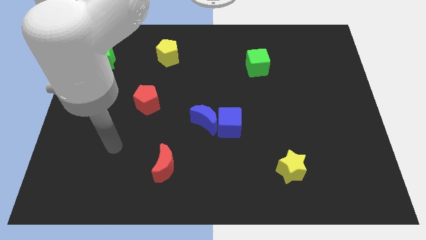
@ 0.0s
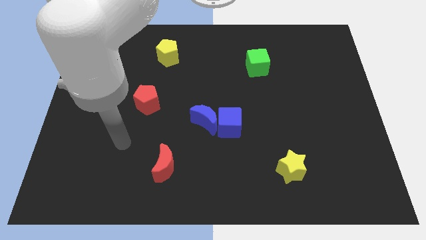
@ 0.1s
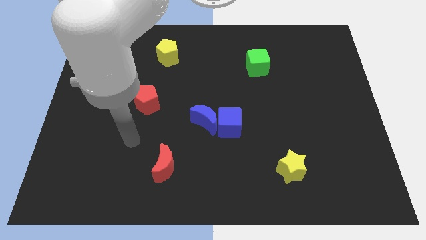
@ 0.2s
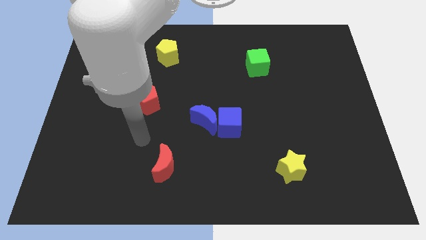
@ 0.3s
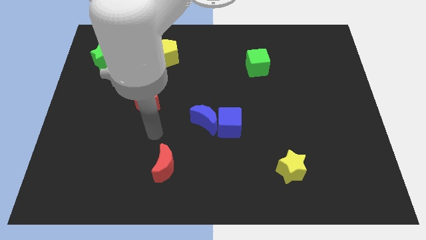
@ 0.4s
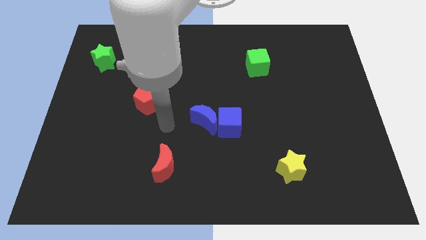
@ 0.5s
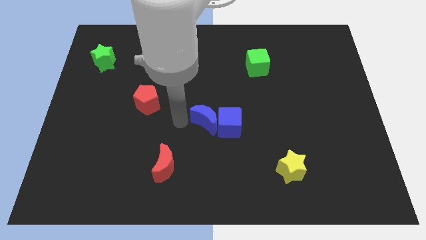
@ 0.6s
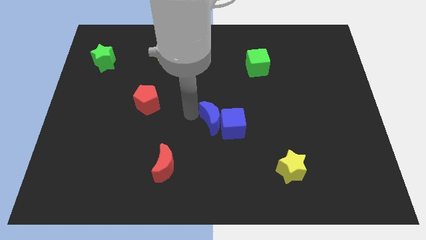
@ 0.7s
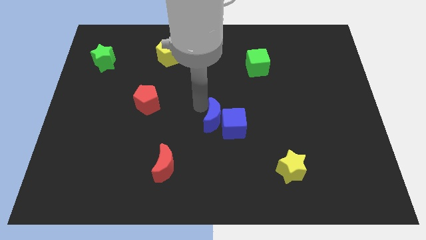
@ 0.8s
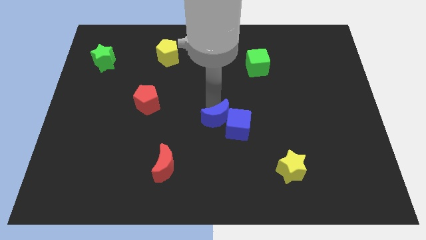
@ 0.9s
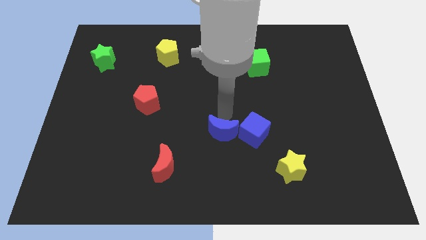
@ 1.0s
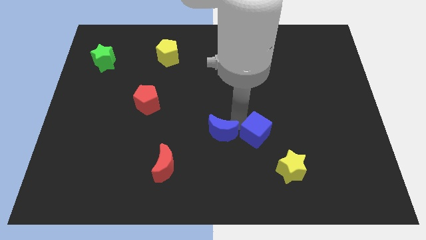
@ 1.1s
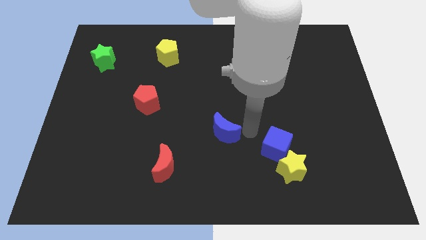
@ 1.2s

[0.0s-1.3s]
move the blue moon away from the blue cube

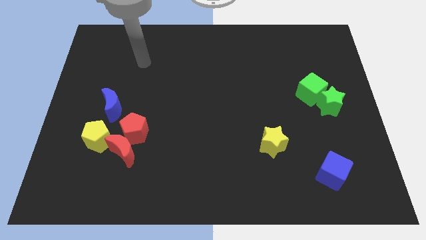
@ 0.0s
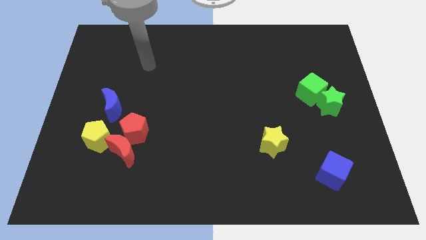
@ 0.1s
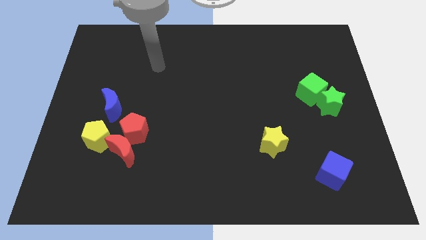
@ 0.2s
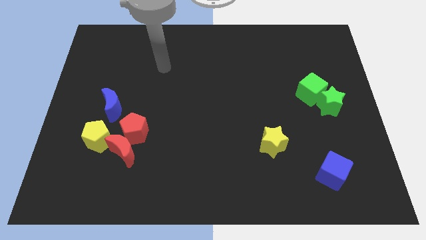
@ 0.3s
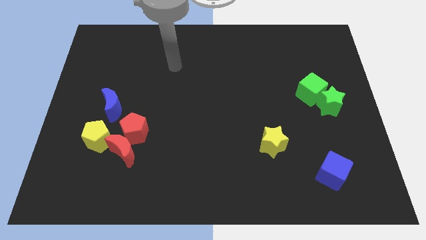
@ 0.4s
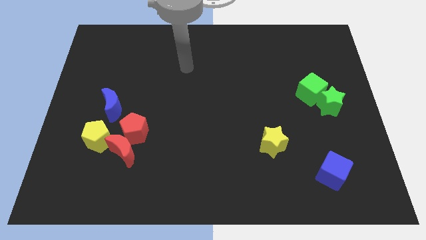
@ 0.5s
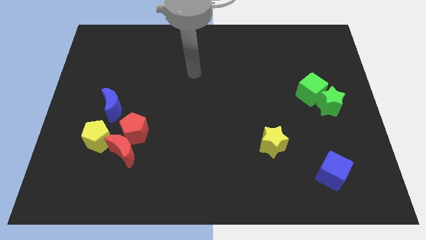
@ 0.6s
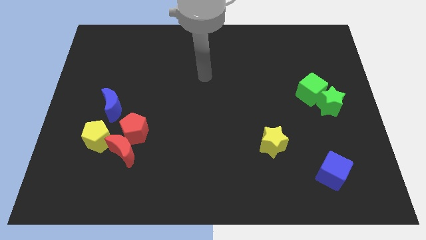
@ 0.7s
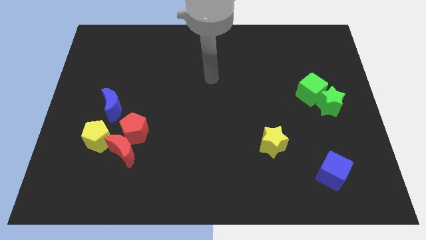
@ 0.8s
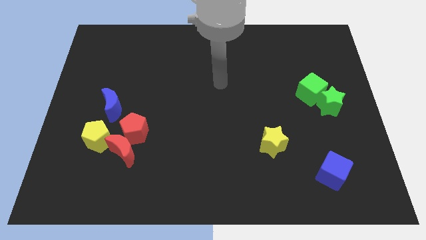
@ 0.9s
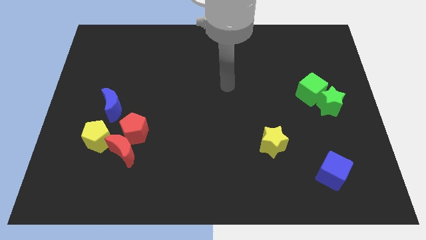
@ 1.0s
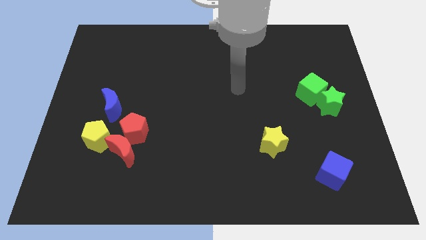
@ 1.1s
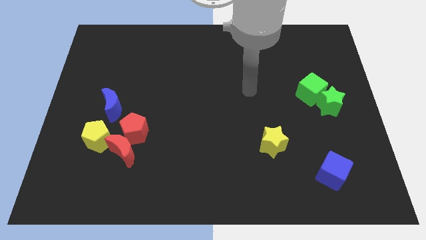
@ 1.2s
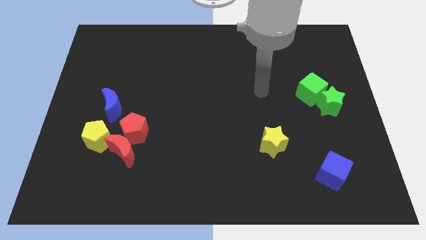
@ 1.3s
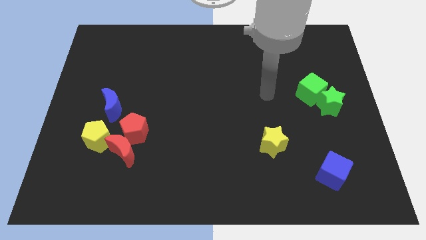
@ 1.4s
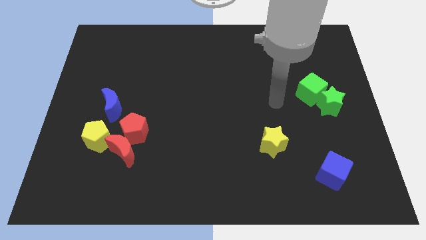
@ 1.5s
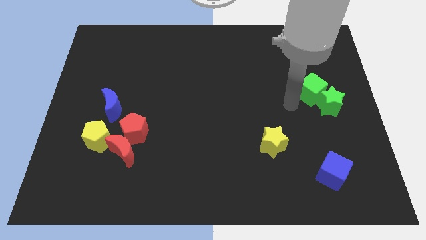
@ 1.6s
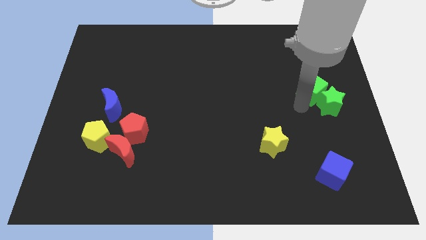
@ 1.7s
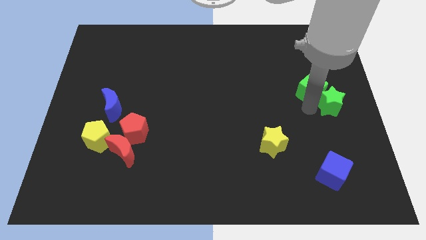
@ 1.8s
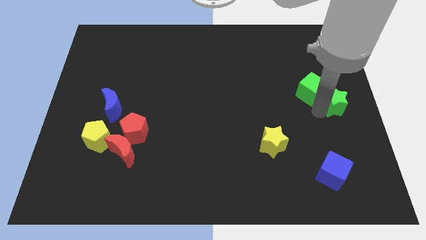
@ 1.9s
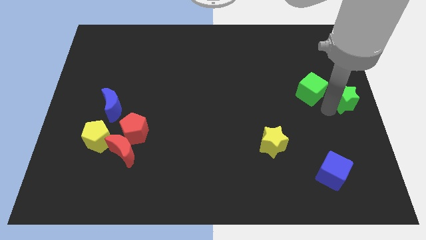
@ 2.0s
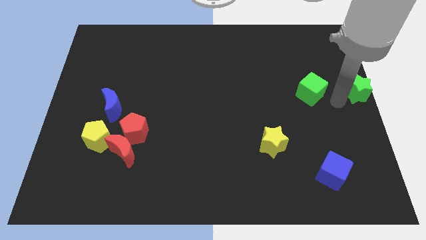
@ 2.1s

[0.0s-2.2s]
pull the green cube apart from the green star

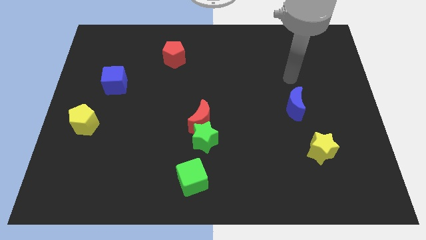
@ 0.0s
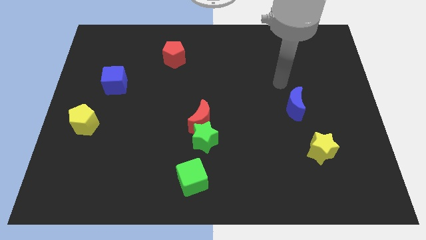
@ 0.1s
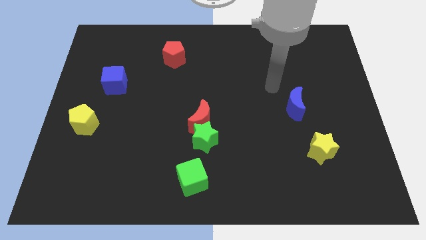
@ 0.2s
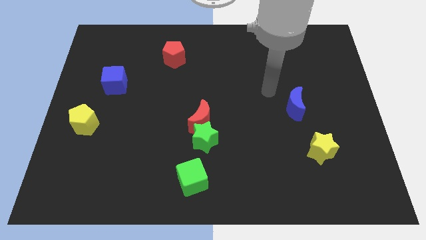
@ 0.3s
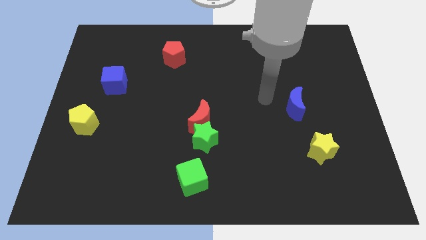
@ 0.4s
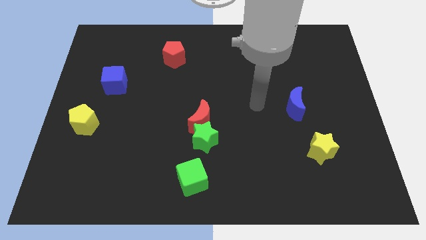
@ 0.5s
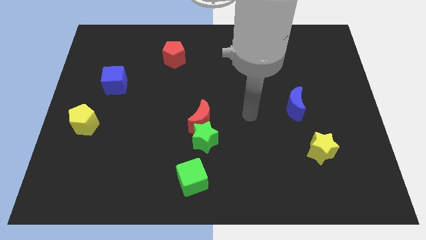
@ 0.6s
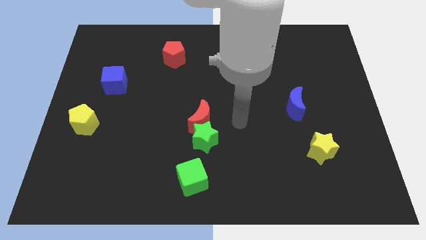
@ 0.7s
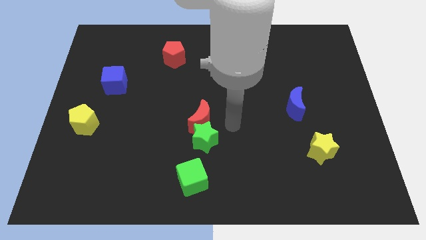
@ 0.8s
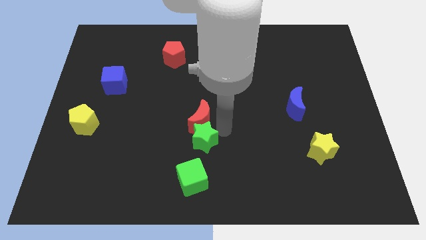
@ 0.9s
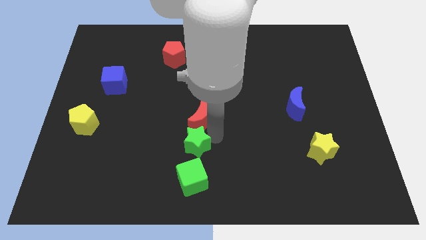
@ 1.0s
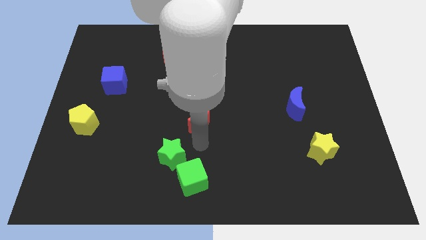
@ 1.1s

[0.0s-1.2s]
separate the red moon from the green star

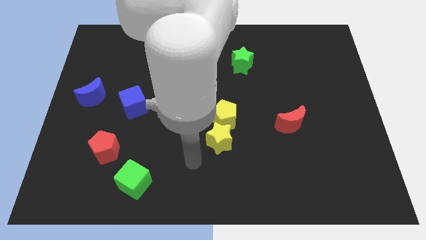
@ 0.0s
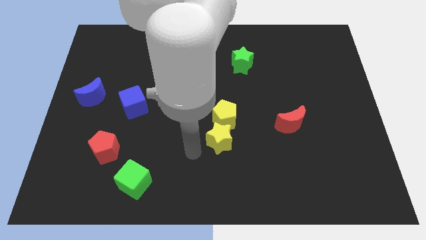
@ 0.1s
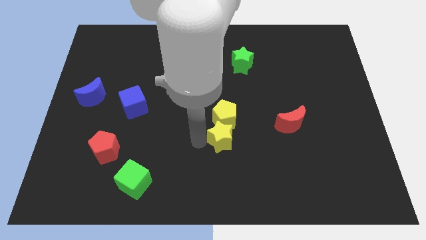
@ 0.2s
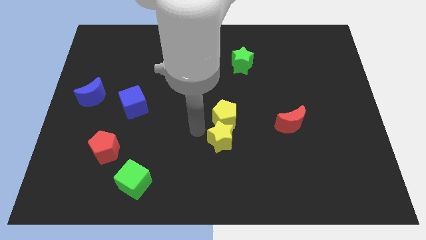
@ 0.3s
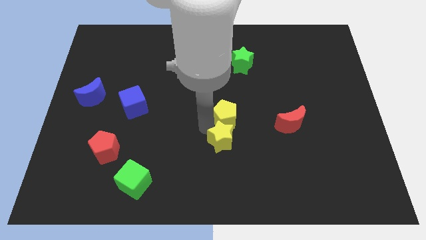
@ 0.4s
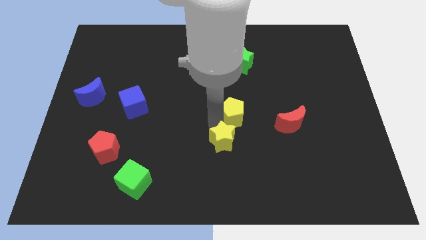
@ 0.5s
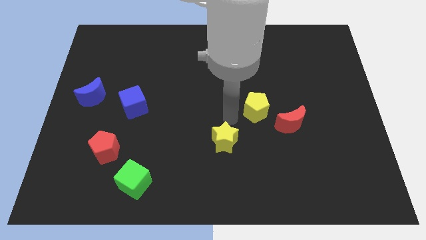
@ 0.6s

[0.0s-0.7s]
separate the yellow star from the yellow pentagon

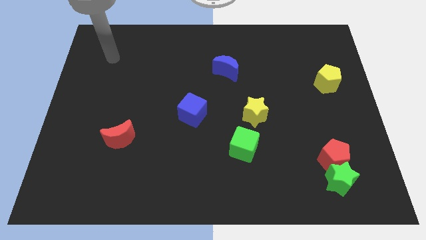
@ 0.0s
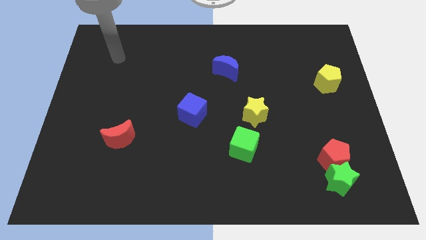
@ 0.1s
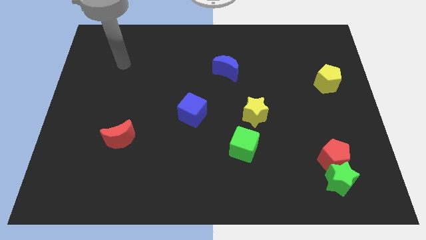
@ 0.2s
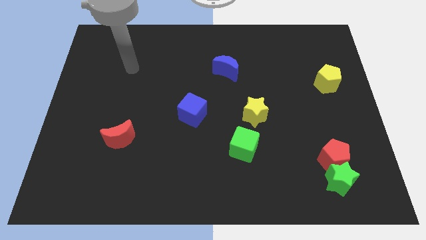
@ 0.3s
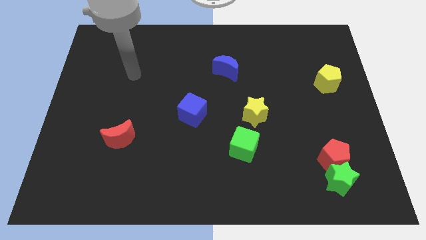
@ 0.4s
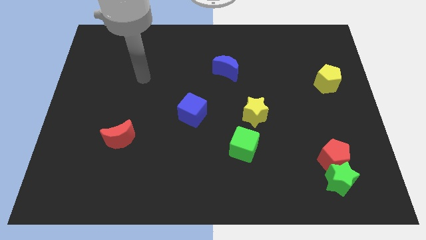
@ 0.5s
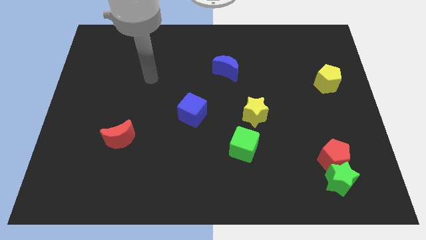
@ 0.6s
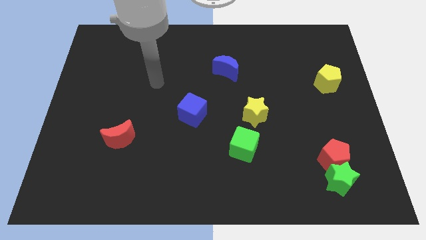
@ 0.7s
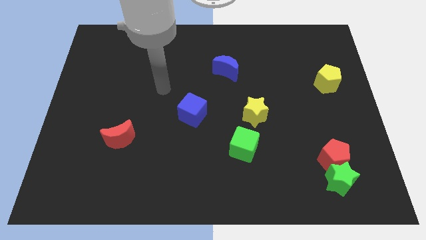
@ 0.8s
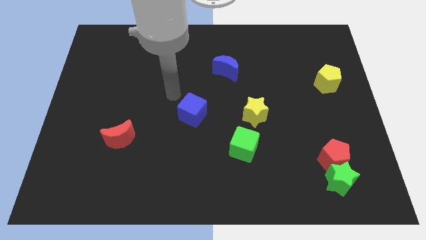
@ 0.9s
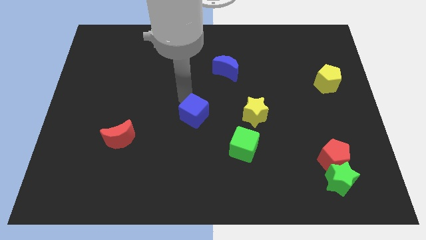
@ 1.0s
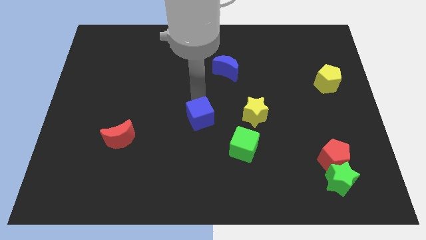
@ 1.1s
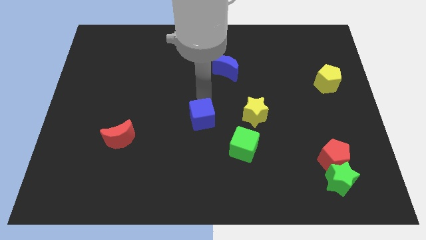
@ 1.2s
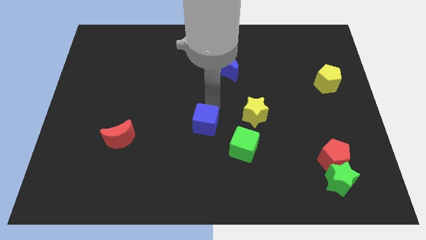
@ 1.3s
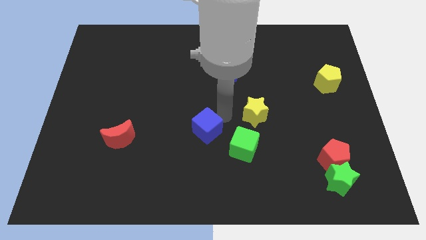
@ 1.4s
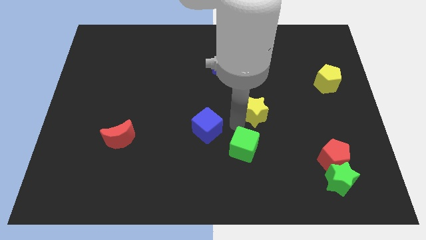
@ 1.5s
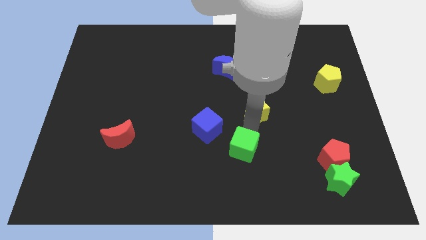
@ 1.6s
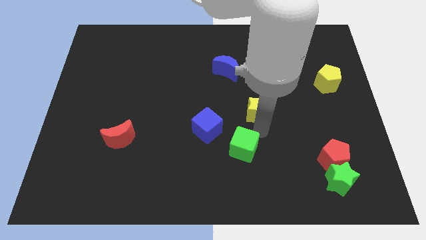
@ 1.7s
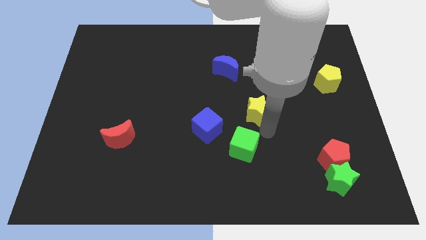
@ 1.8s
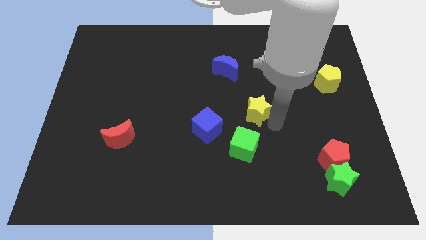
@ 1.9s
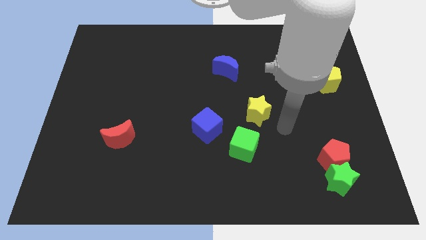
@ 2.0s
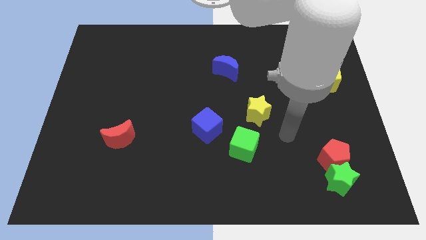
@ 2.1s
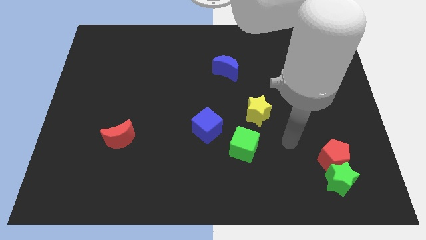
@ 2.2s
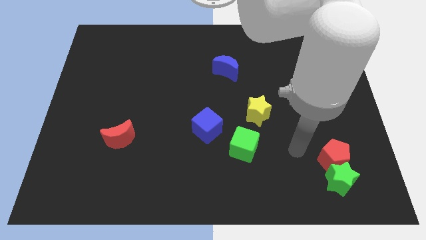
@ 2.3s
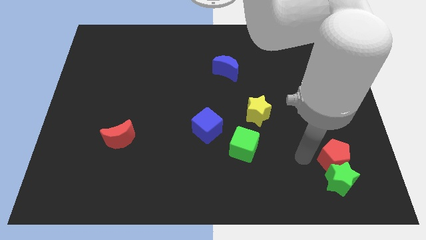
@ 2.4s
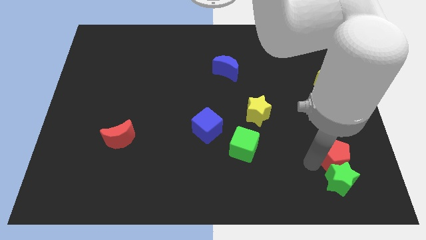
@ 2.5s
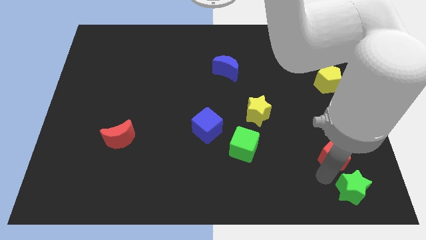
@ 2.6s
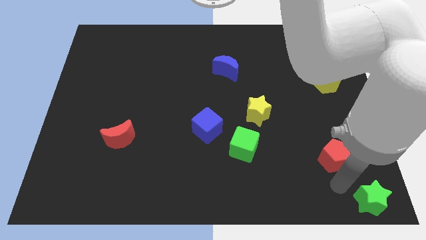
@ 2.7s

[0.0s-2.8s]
pull the red pentagon apart from the green star

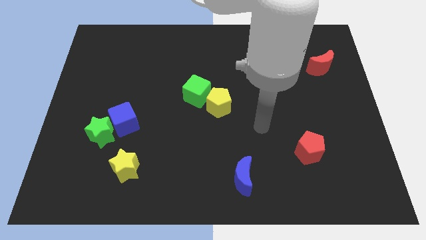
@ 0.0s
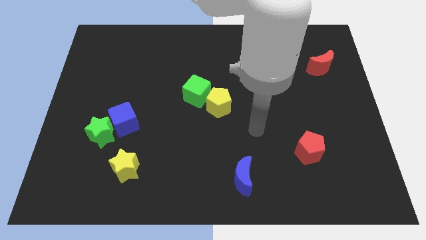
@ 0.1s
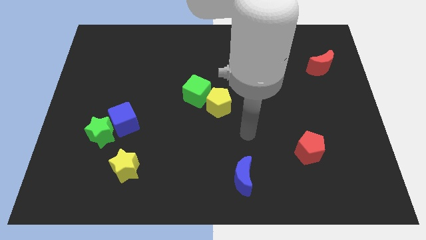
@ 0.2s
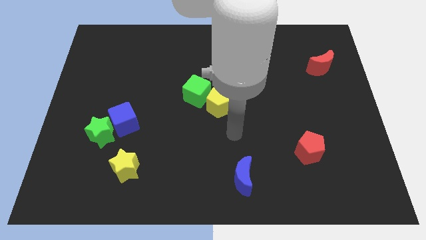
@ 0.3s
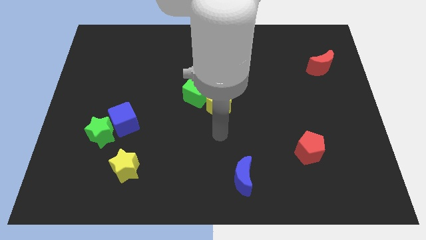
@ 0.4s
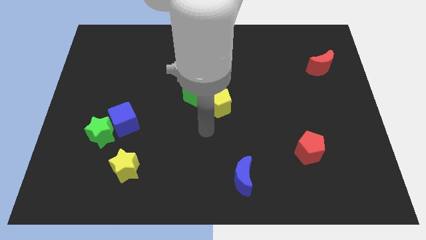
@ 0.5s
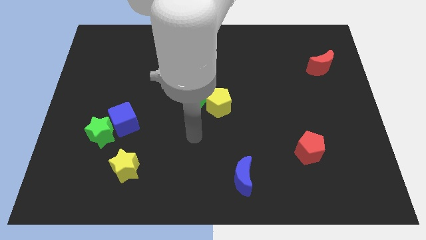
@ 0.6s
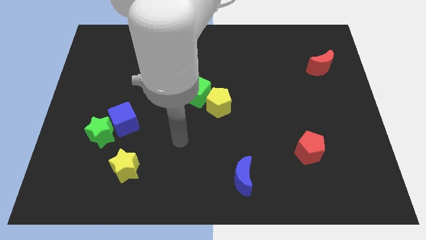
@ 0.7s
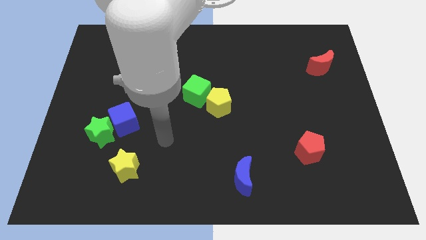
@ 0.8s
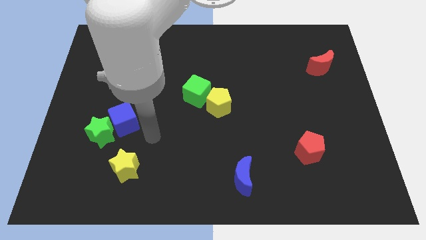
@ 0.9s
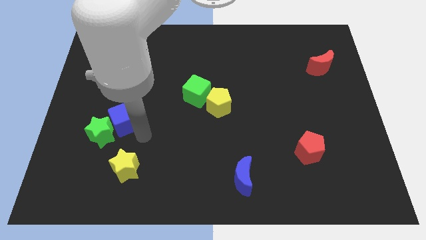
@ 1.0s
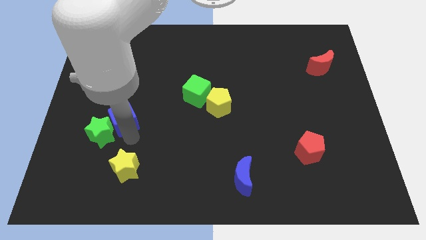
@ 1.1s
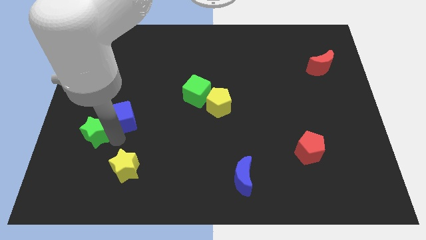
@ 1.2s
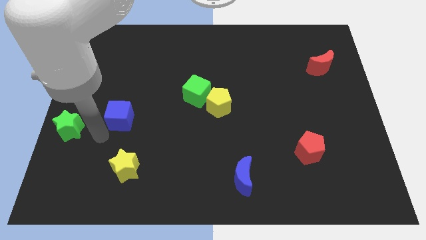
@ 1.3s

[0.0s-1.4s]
move the blue cube away from the green star
